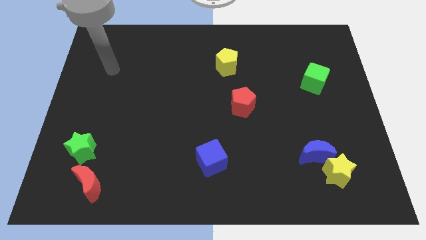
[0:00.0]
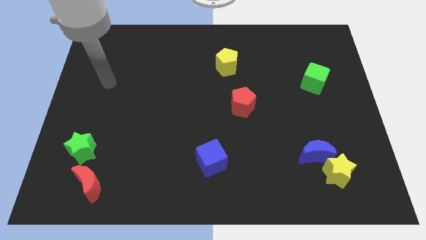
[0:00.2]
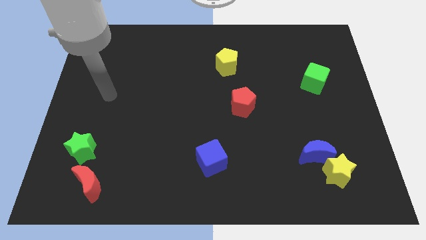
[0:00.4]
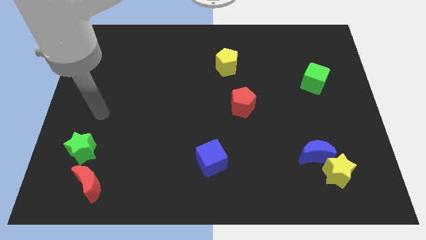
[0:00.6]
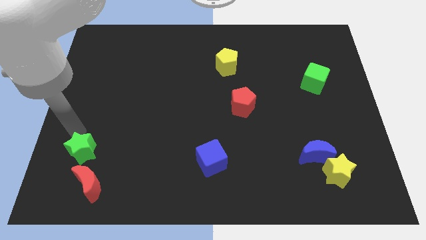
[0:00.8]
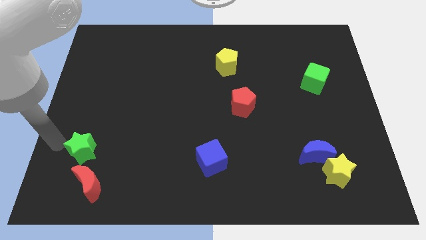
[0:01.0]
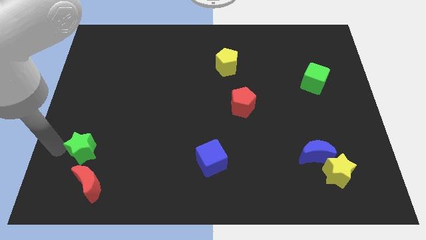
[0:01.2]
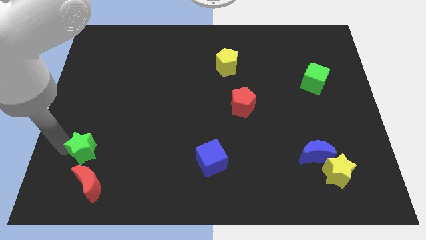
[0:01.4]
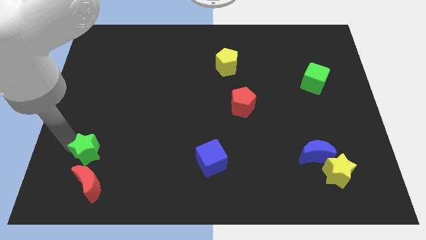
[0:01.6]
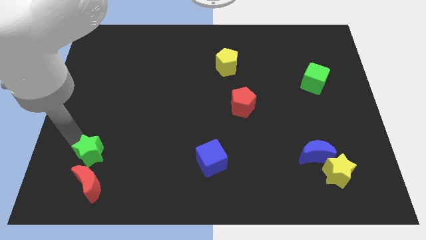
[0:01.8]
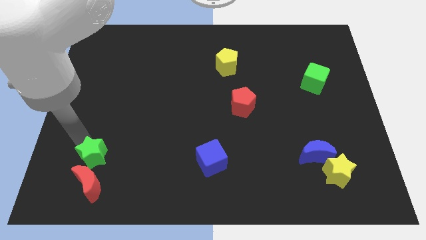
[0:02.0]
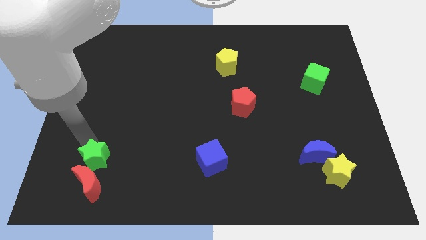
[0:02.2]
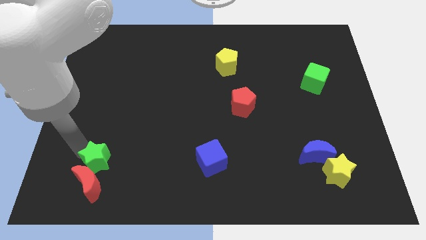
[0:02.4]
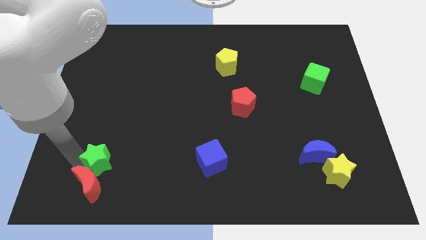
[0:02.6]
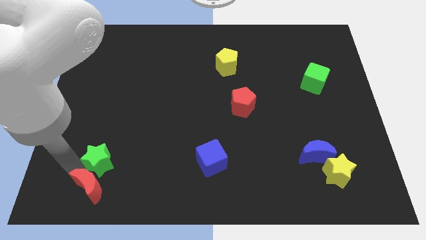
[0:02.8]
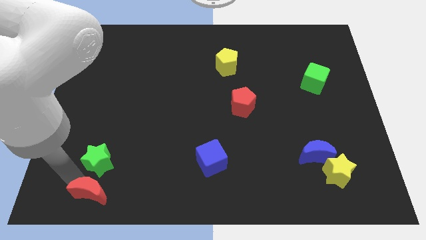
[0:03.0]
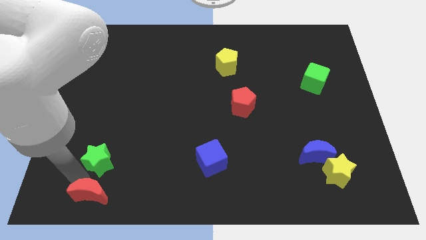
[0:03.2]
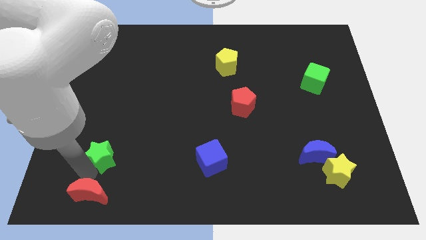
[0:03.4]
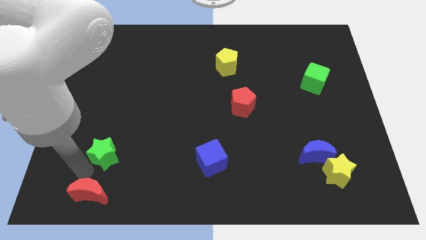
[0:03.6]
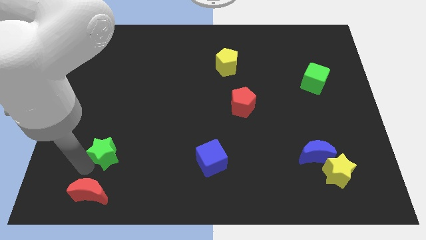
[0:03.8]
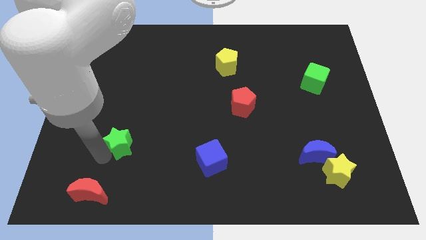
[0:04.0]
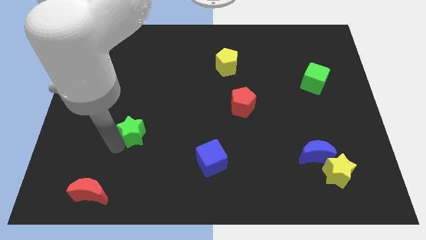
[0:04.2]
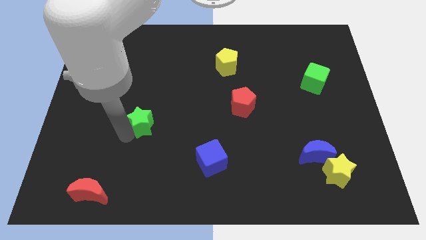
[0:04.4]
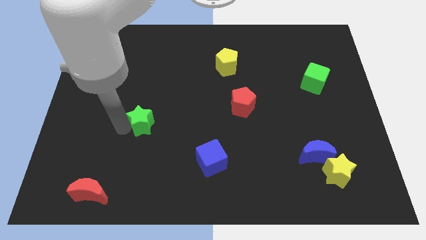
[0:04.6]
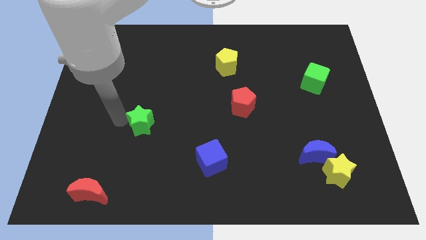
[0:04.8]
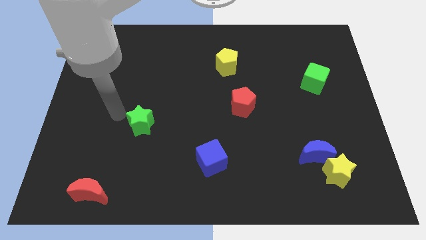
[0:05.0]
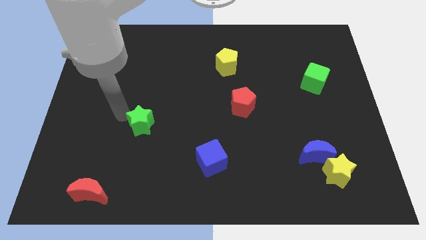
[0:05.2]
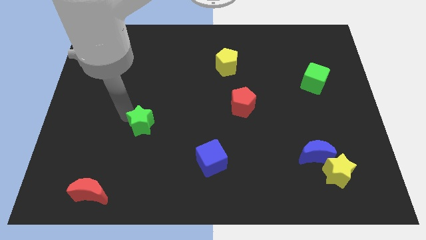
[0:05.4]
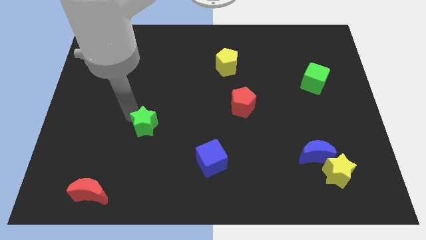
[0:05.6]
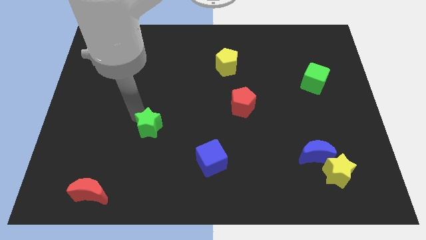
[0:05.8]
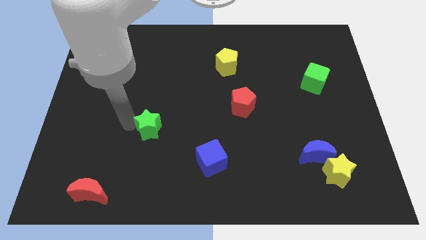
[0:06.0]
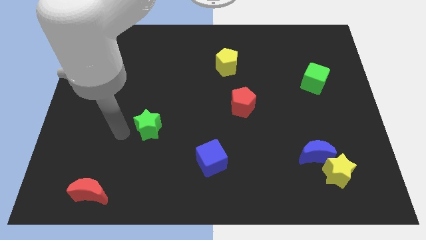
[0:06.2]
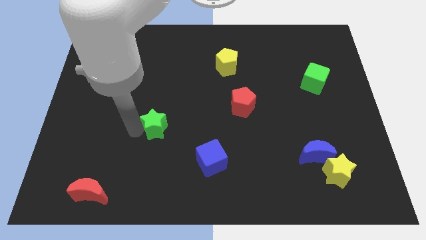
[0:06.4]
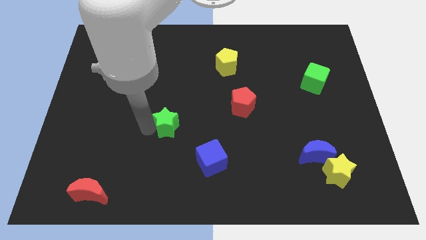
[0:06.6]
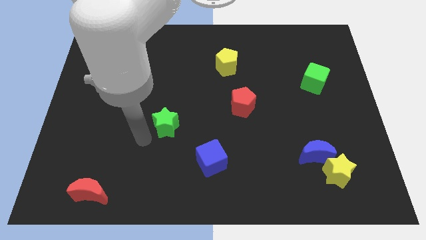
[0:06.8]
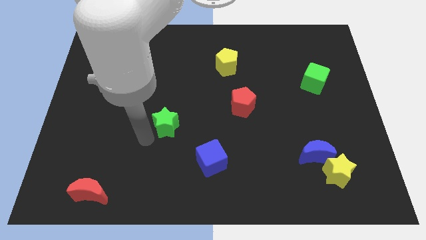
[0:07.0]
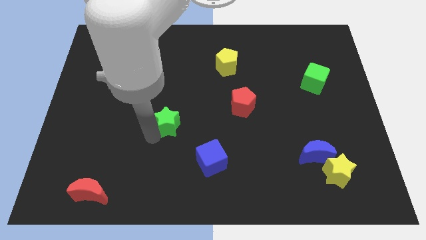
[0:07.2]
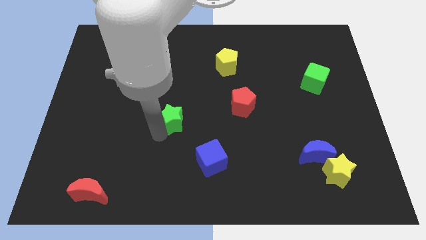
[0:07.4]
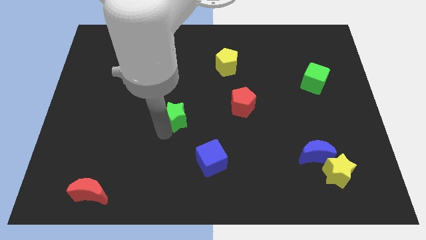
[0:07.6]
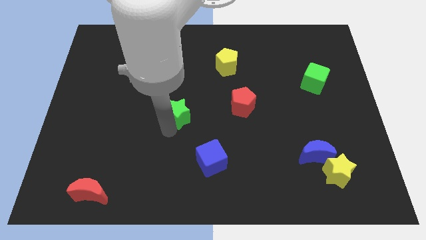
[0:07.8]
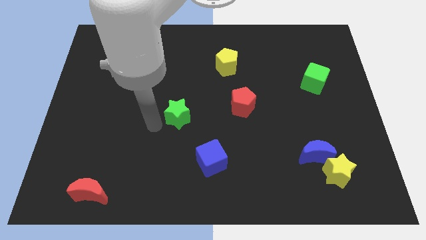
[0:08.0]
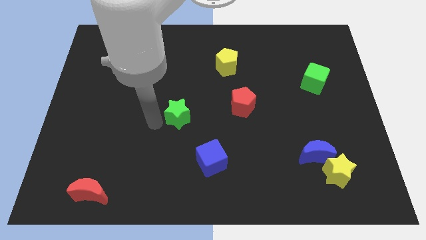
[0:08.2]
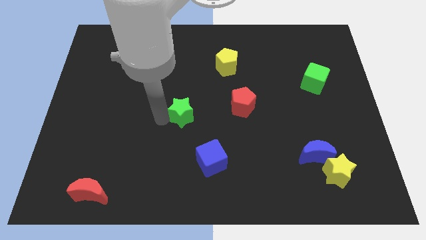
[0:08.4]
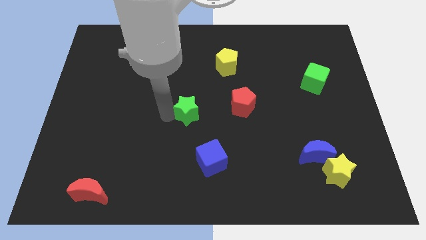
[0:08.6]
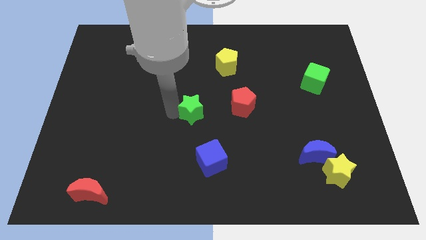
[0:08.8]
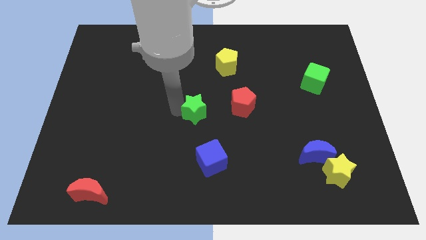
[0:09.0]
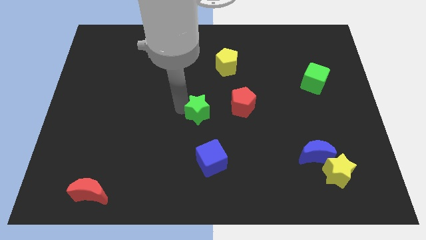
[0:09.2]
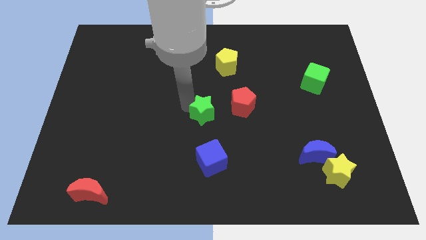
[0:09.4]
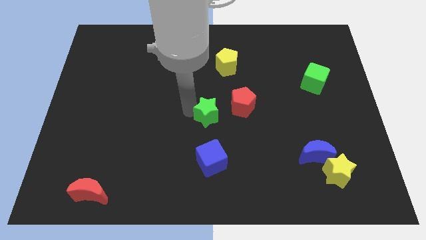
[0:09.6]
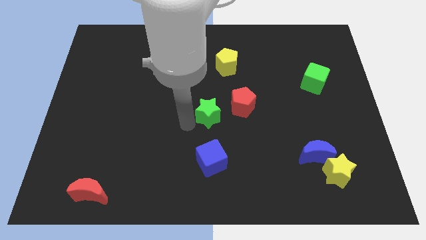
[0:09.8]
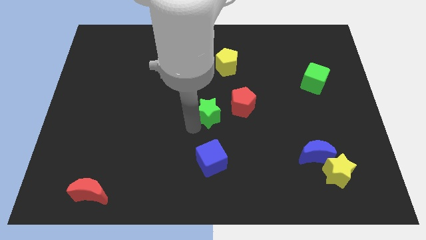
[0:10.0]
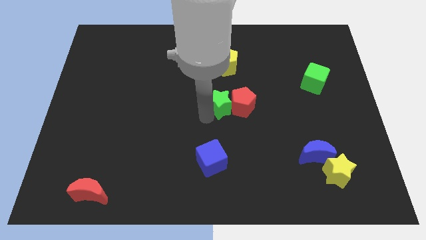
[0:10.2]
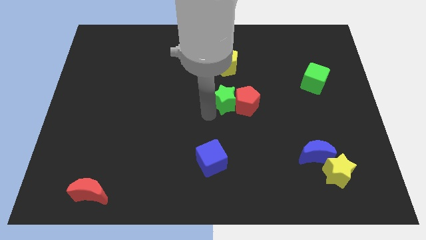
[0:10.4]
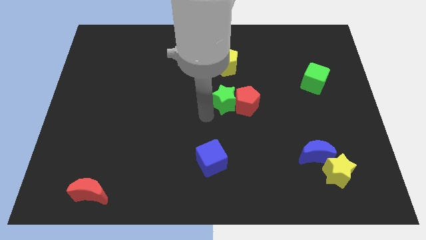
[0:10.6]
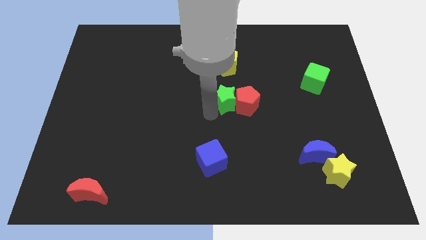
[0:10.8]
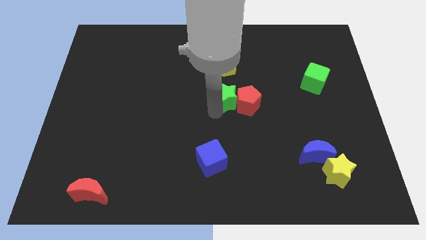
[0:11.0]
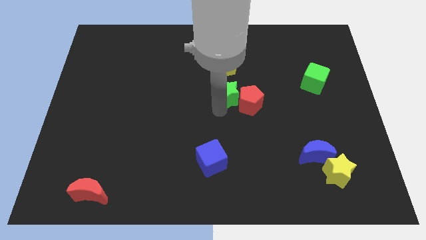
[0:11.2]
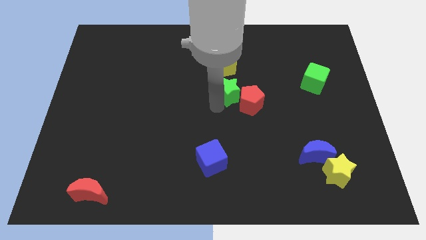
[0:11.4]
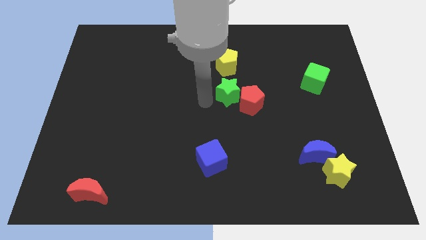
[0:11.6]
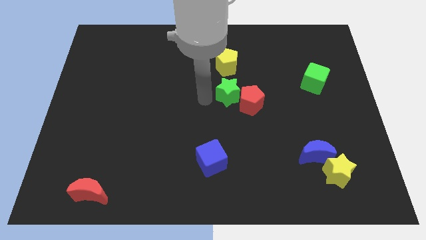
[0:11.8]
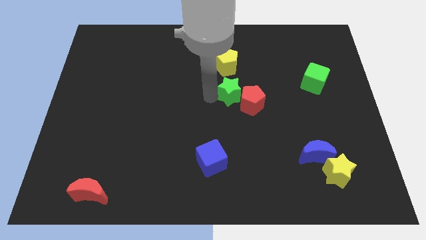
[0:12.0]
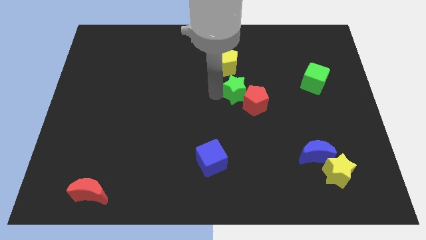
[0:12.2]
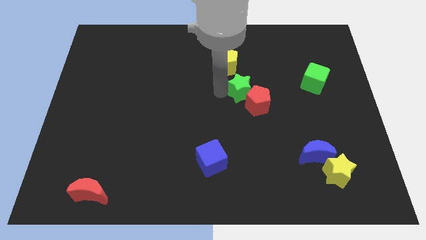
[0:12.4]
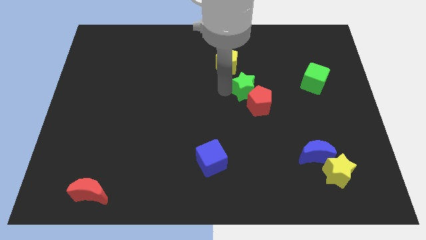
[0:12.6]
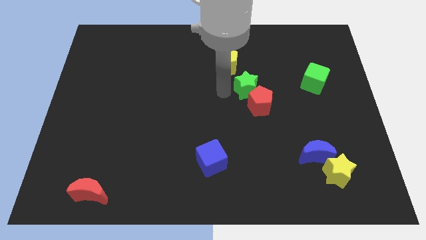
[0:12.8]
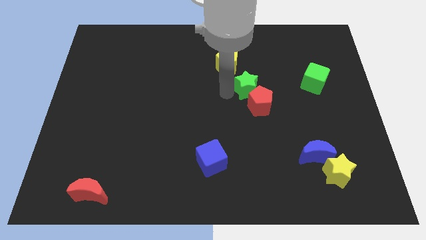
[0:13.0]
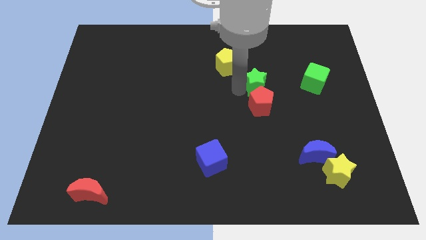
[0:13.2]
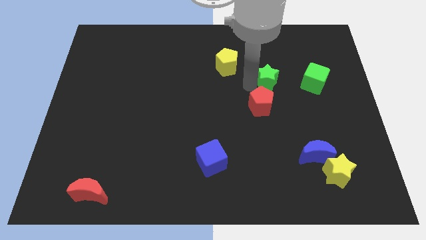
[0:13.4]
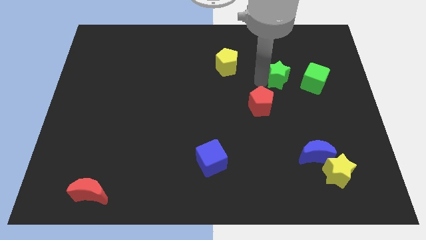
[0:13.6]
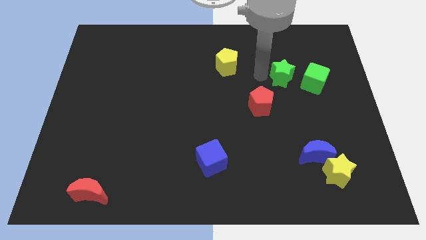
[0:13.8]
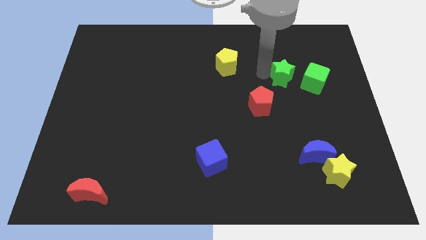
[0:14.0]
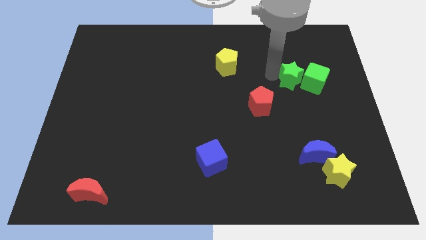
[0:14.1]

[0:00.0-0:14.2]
push the green star to the green cube

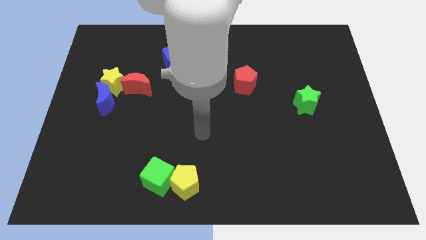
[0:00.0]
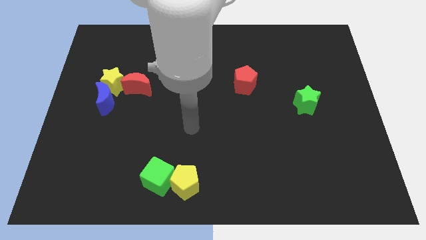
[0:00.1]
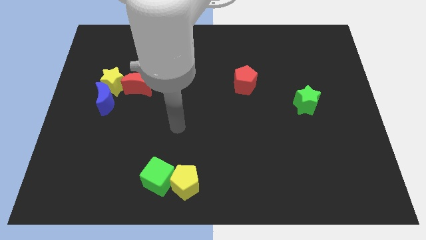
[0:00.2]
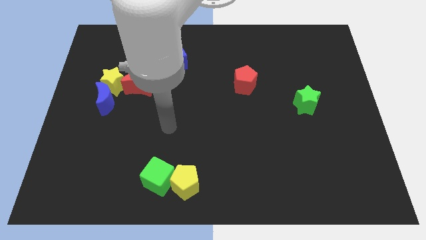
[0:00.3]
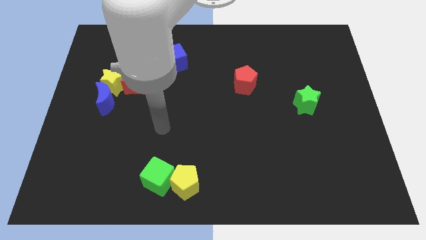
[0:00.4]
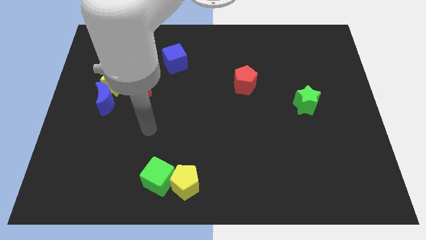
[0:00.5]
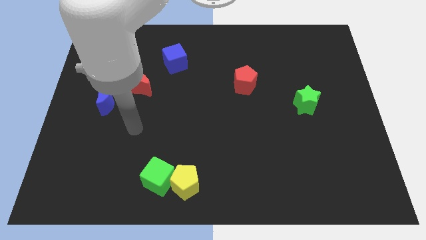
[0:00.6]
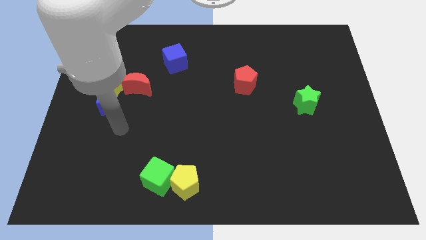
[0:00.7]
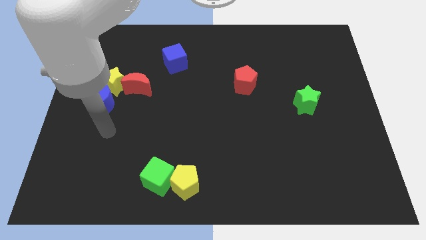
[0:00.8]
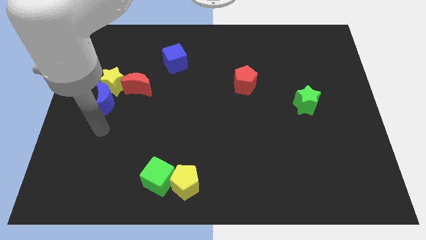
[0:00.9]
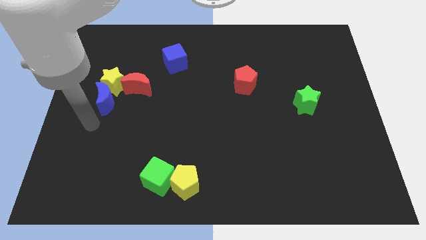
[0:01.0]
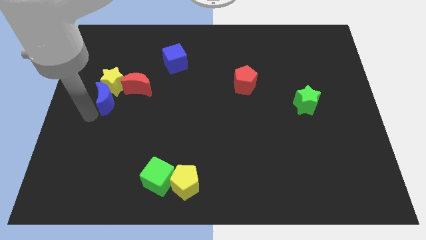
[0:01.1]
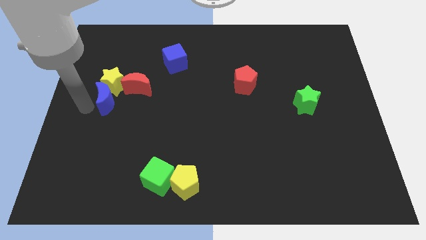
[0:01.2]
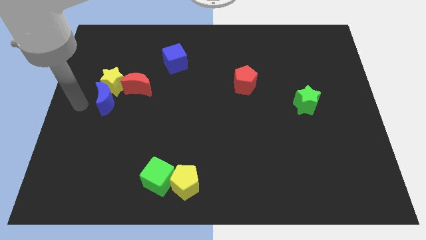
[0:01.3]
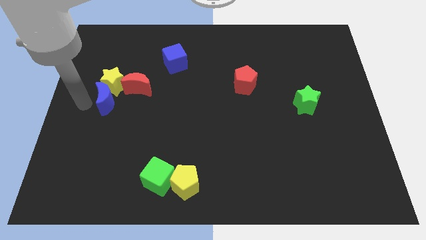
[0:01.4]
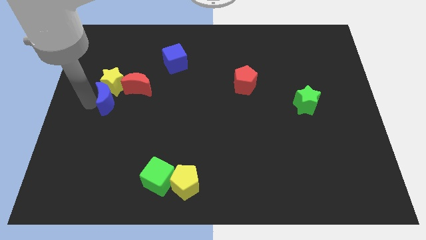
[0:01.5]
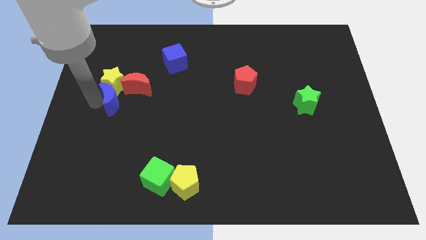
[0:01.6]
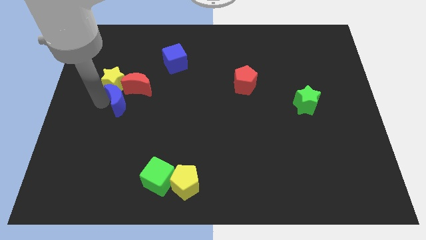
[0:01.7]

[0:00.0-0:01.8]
push the blue moon to the red moon
